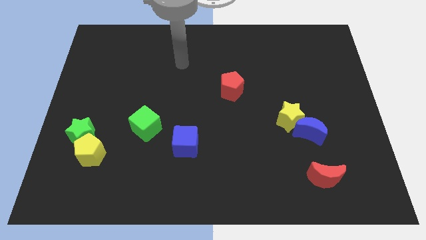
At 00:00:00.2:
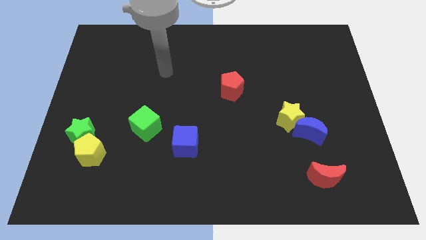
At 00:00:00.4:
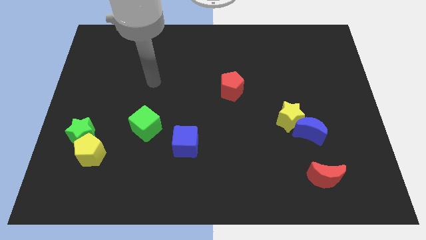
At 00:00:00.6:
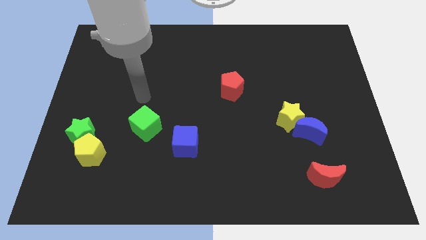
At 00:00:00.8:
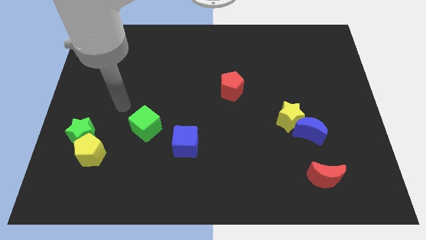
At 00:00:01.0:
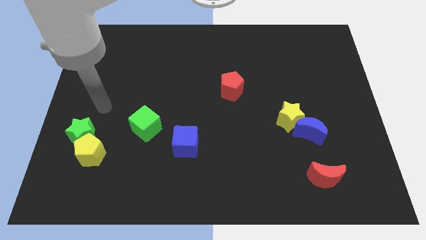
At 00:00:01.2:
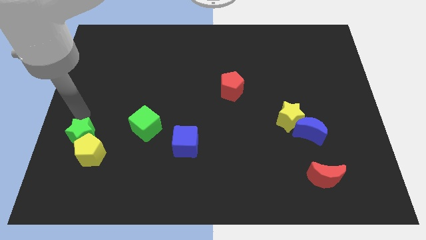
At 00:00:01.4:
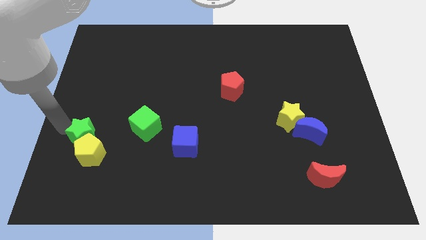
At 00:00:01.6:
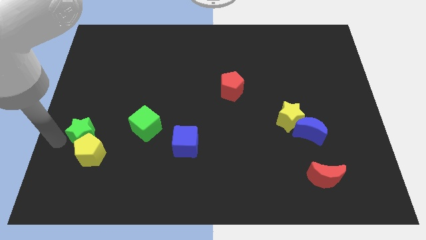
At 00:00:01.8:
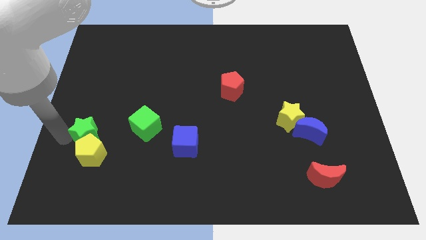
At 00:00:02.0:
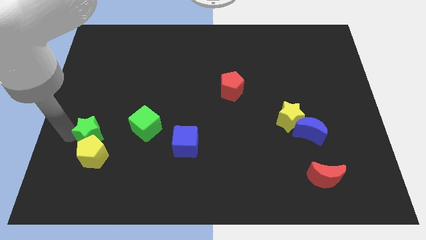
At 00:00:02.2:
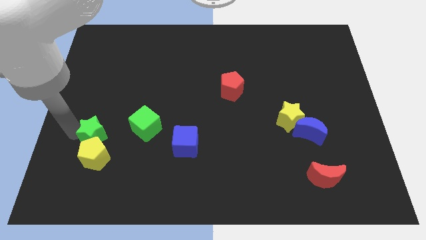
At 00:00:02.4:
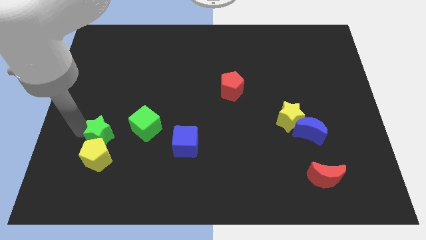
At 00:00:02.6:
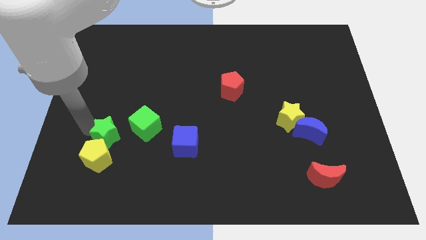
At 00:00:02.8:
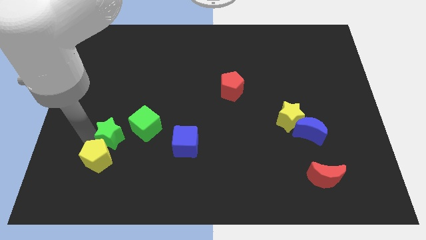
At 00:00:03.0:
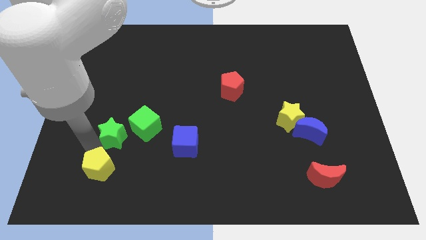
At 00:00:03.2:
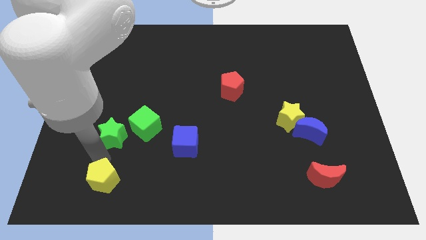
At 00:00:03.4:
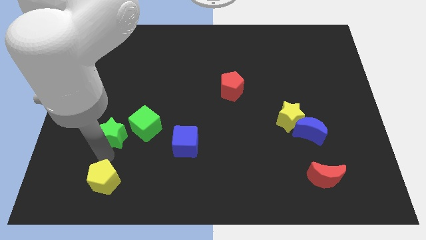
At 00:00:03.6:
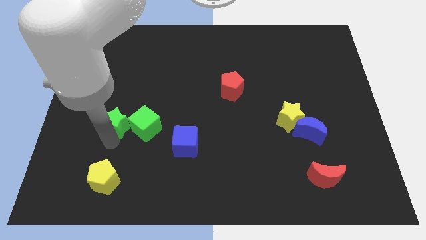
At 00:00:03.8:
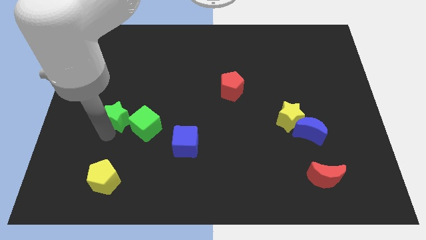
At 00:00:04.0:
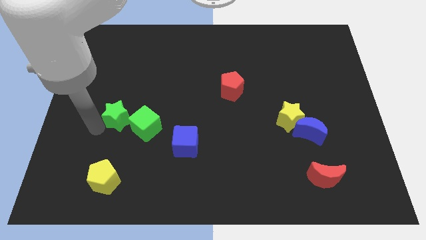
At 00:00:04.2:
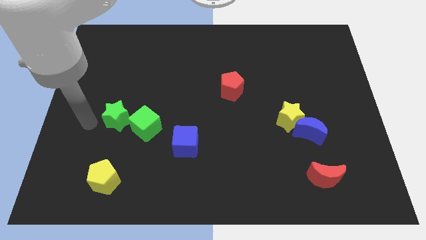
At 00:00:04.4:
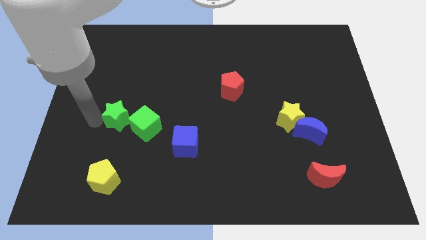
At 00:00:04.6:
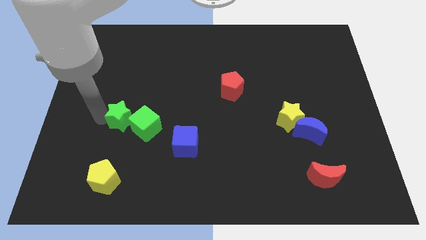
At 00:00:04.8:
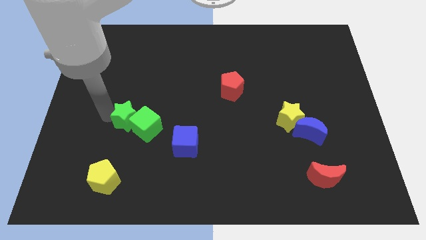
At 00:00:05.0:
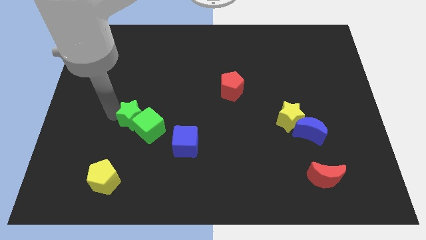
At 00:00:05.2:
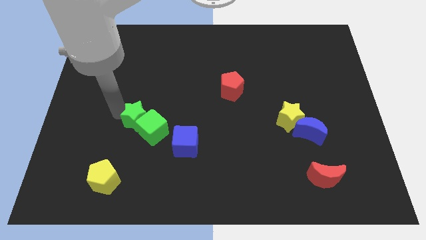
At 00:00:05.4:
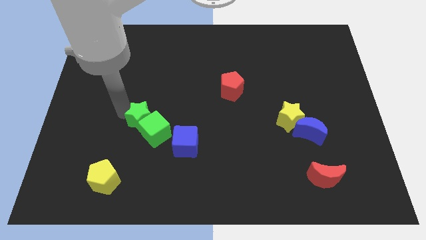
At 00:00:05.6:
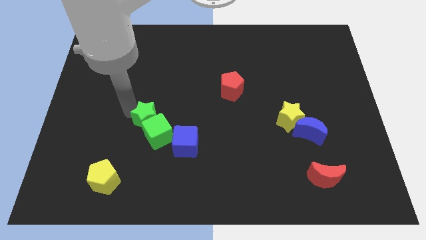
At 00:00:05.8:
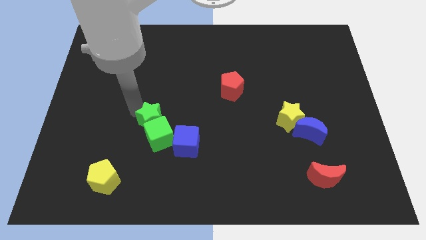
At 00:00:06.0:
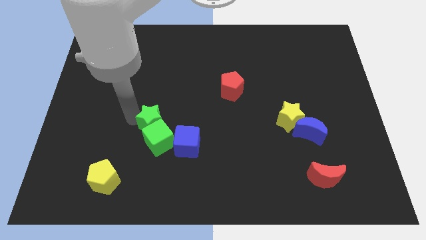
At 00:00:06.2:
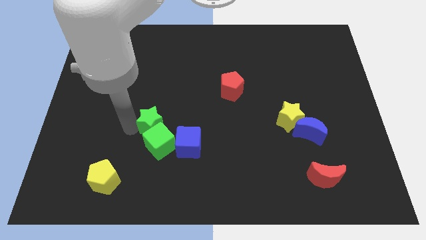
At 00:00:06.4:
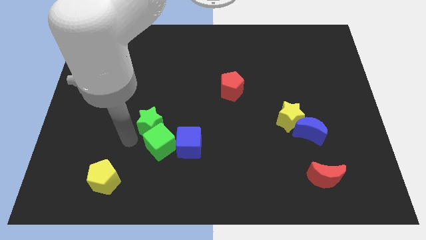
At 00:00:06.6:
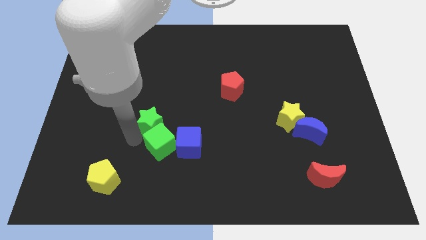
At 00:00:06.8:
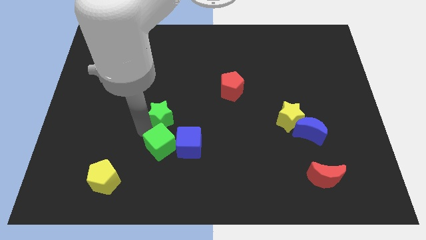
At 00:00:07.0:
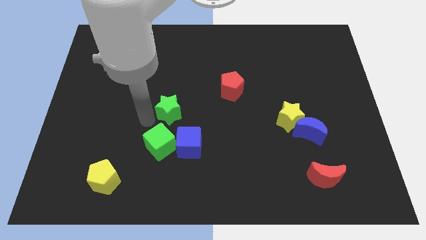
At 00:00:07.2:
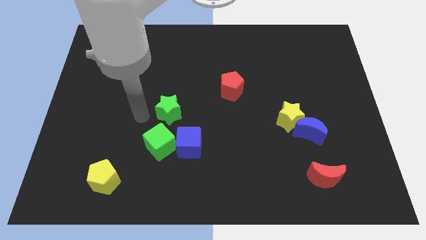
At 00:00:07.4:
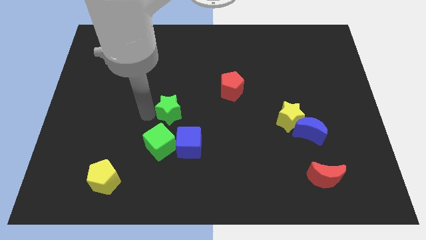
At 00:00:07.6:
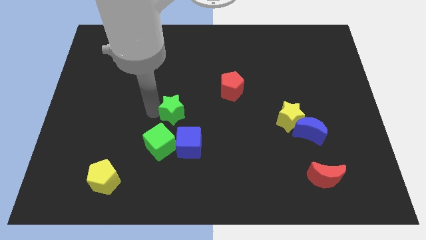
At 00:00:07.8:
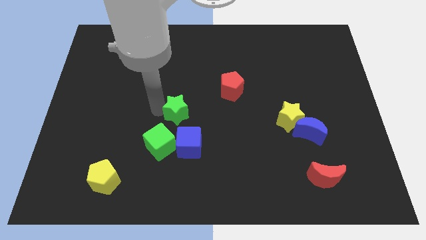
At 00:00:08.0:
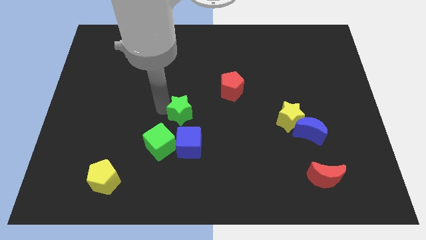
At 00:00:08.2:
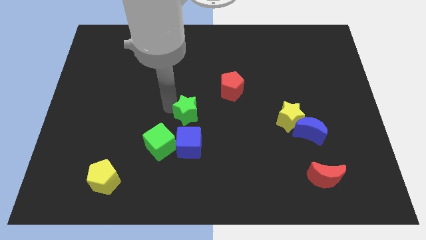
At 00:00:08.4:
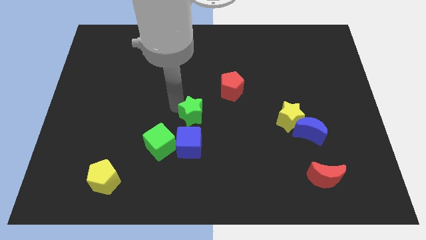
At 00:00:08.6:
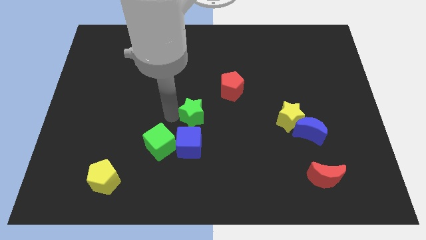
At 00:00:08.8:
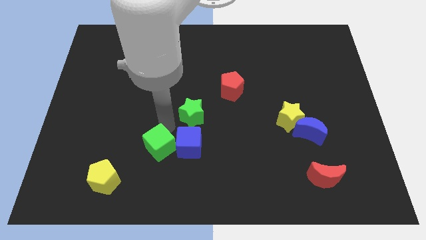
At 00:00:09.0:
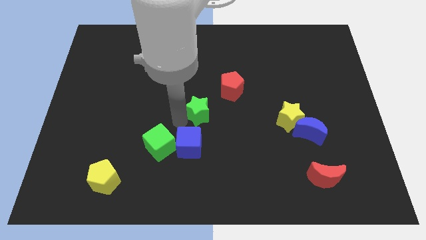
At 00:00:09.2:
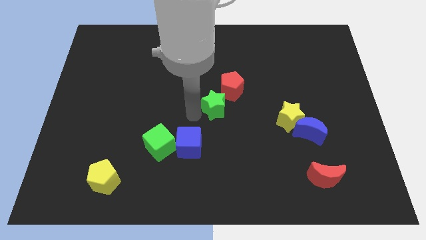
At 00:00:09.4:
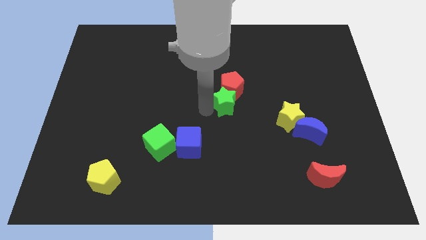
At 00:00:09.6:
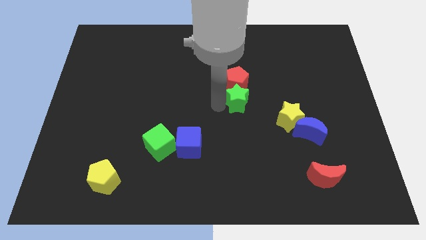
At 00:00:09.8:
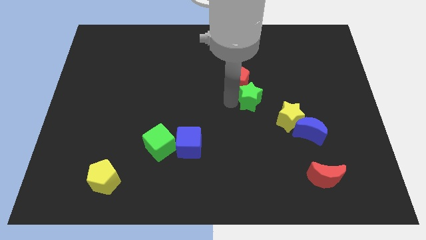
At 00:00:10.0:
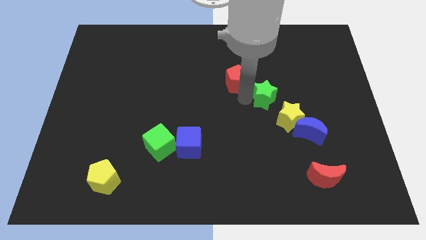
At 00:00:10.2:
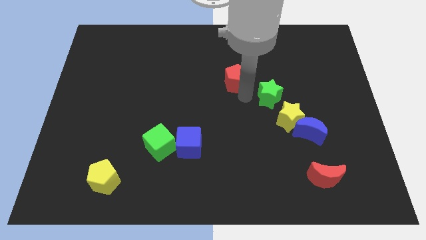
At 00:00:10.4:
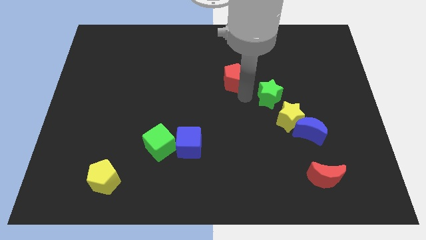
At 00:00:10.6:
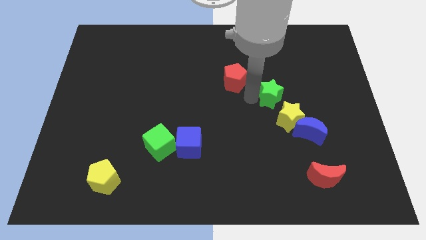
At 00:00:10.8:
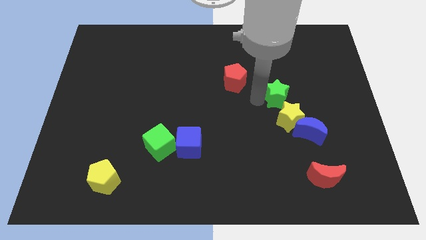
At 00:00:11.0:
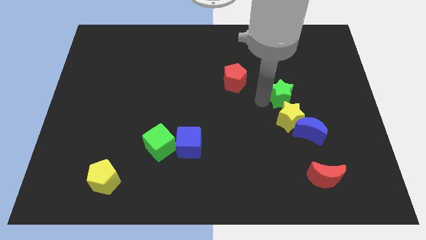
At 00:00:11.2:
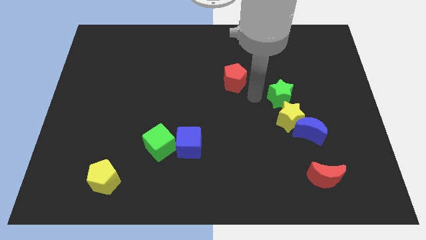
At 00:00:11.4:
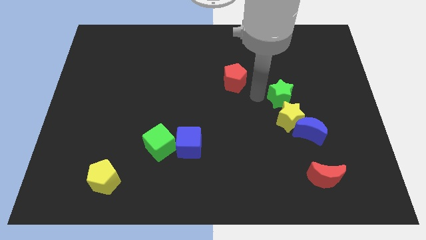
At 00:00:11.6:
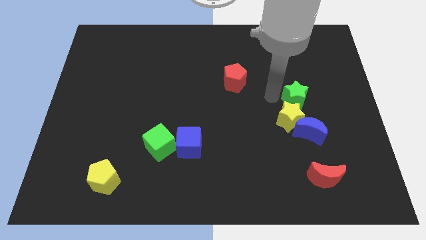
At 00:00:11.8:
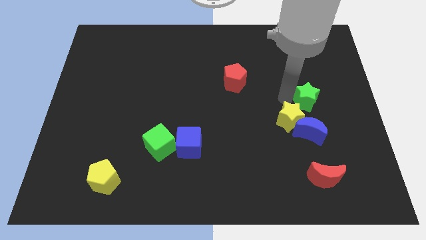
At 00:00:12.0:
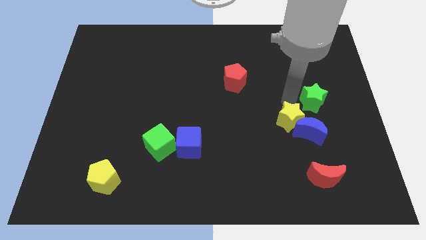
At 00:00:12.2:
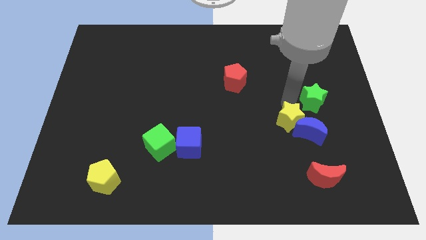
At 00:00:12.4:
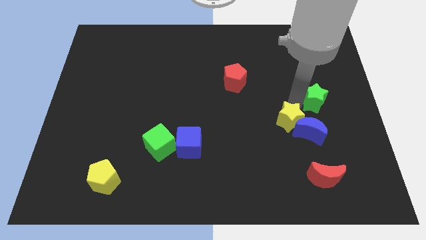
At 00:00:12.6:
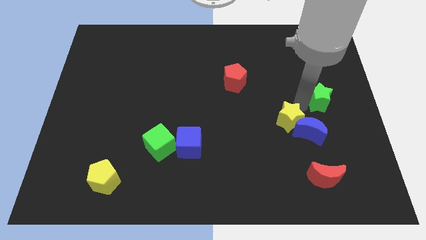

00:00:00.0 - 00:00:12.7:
push the green star to the center right

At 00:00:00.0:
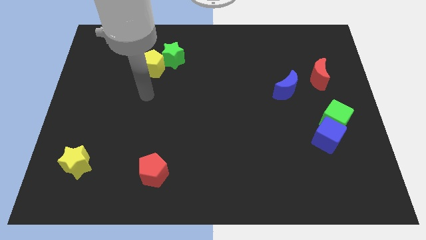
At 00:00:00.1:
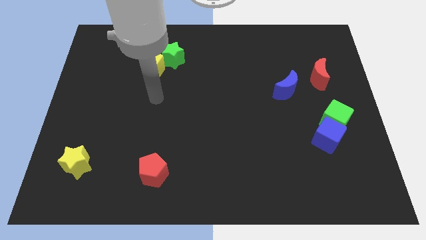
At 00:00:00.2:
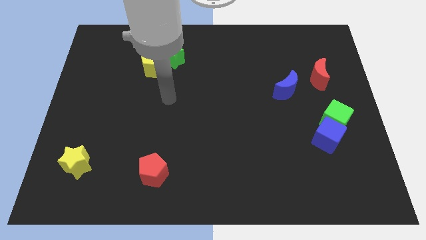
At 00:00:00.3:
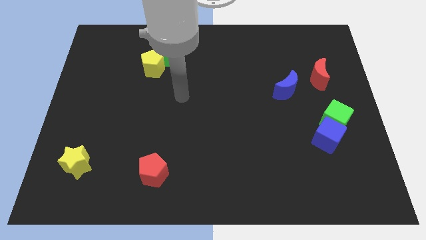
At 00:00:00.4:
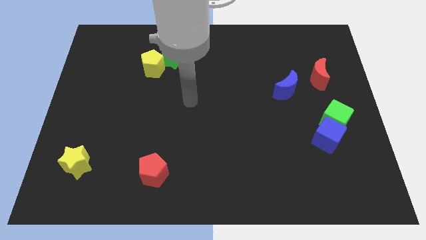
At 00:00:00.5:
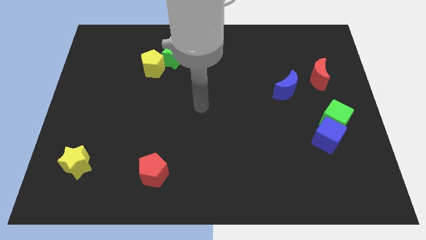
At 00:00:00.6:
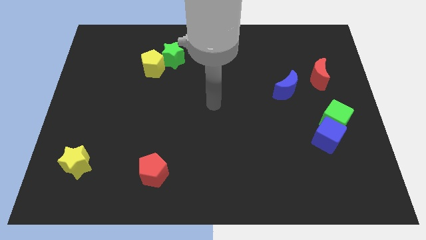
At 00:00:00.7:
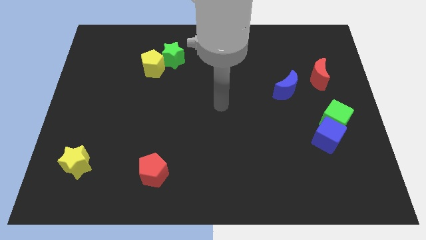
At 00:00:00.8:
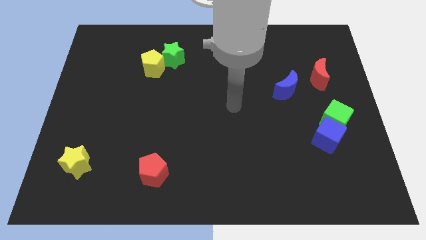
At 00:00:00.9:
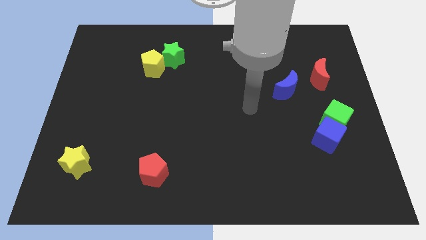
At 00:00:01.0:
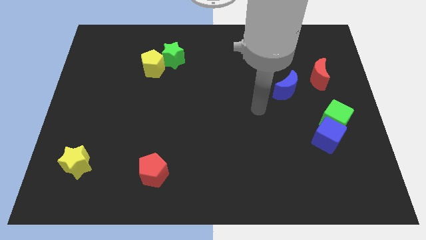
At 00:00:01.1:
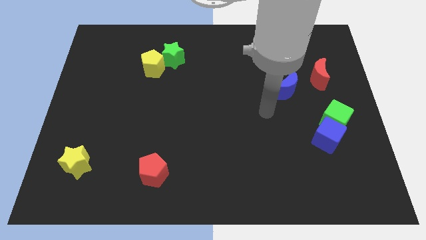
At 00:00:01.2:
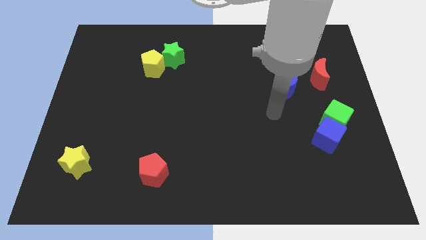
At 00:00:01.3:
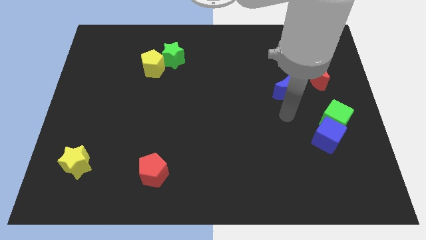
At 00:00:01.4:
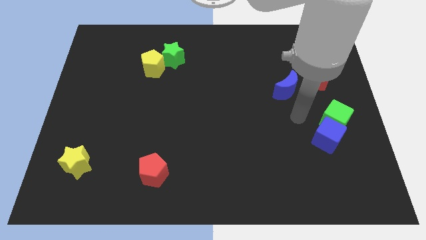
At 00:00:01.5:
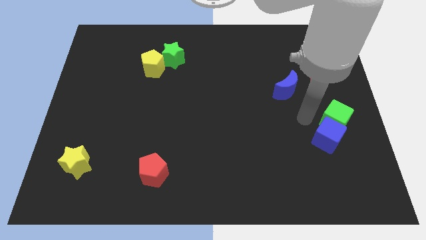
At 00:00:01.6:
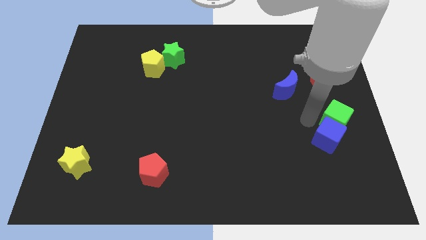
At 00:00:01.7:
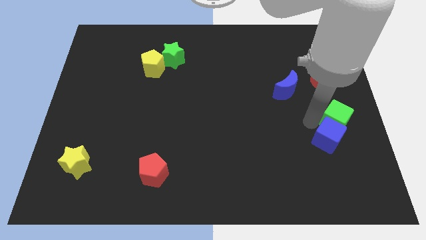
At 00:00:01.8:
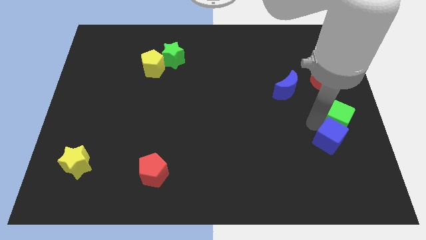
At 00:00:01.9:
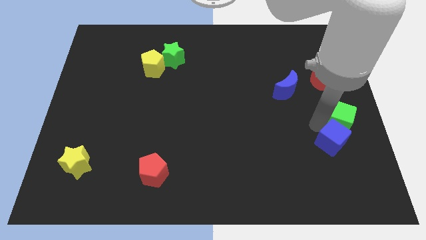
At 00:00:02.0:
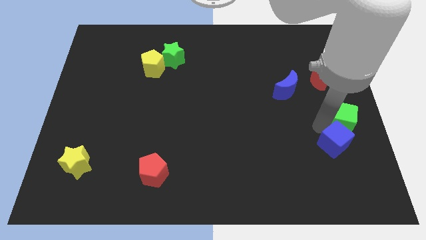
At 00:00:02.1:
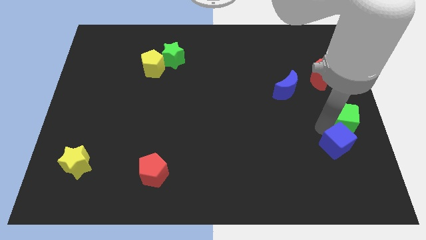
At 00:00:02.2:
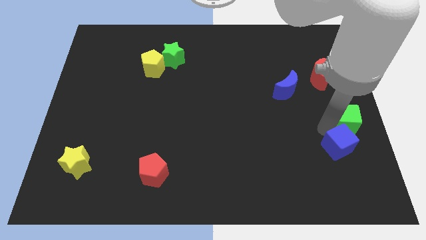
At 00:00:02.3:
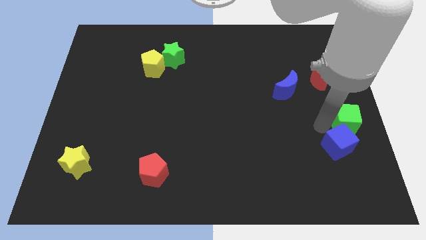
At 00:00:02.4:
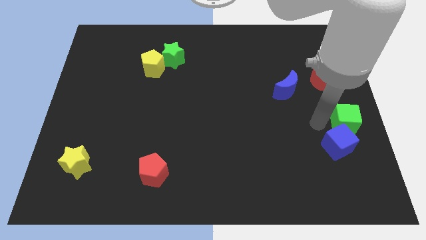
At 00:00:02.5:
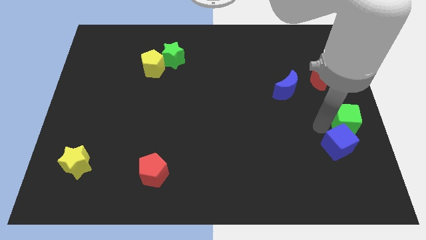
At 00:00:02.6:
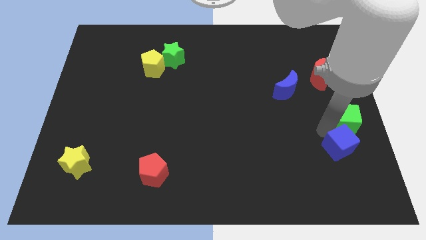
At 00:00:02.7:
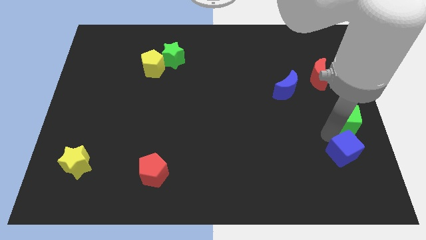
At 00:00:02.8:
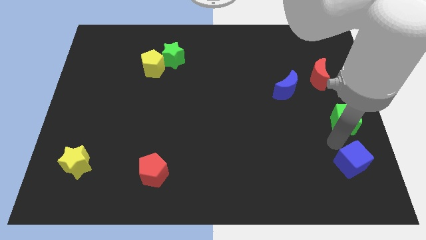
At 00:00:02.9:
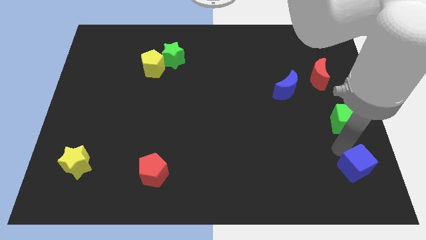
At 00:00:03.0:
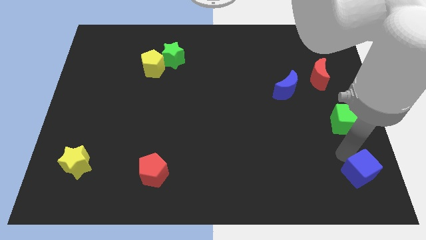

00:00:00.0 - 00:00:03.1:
push the blue cube to the bottom right
